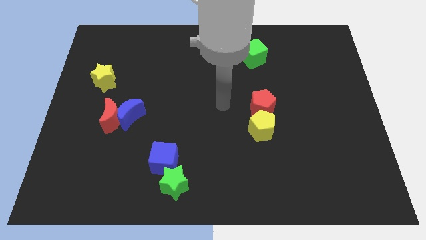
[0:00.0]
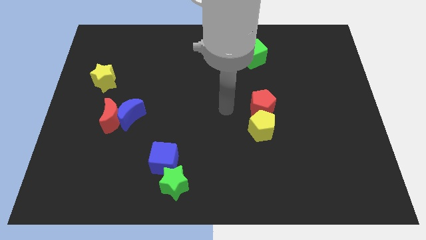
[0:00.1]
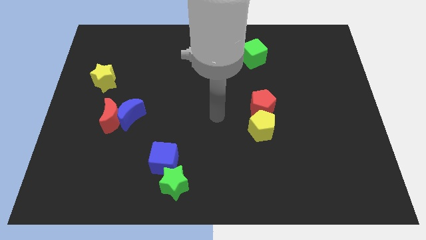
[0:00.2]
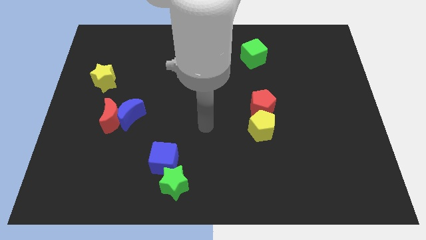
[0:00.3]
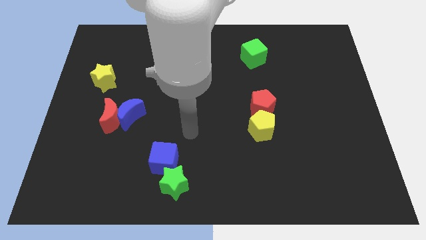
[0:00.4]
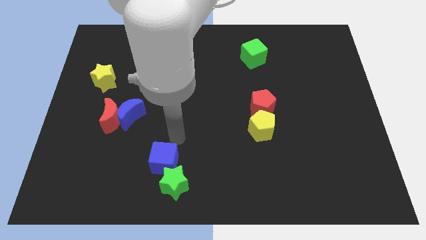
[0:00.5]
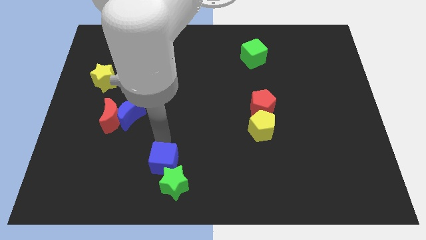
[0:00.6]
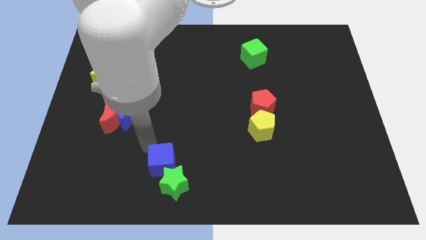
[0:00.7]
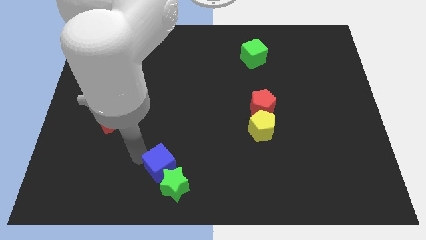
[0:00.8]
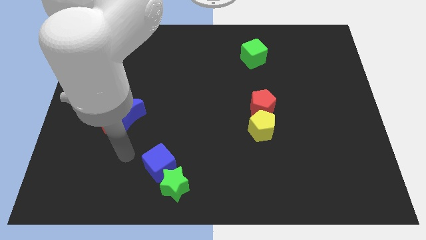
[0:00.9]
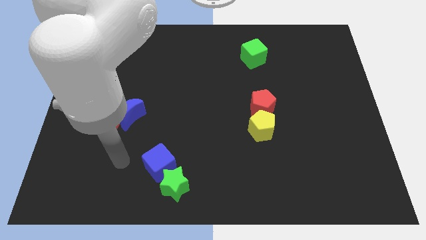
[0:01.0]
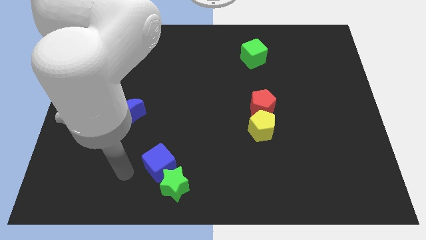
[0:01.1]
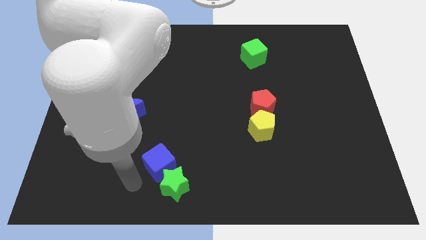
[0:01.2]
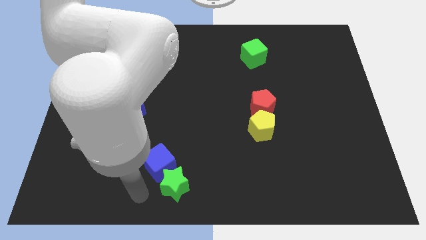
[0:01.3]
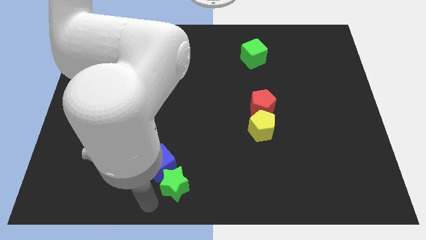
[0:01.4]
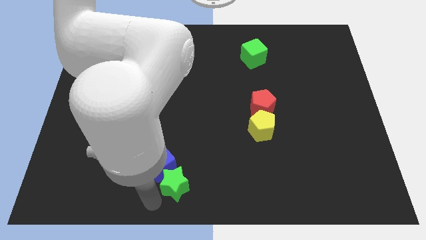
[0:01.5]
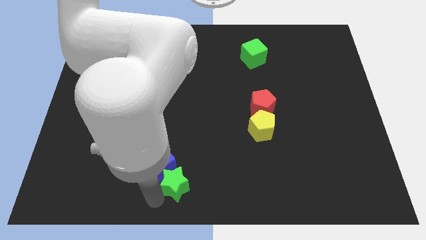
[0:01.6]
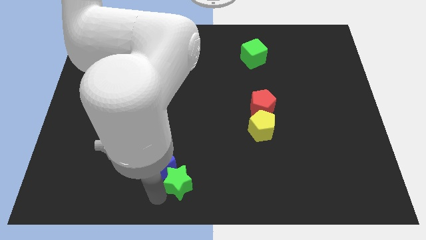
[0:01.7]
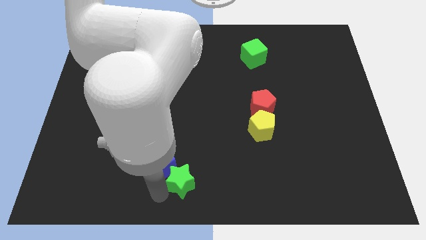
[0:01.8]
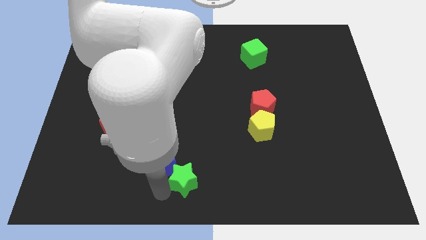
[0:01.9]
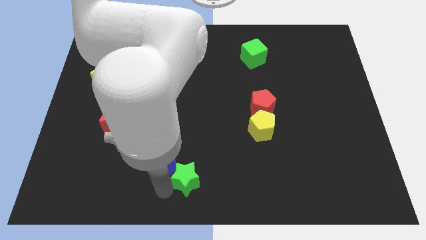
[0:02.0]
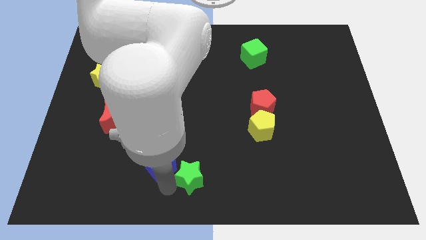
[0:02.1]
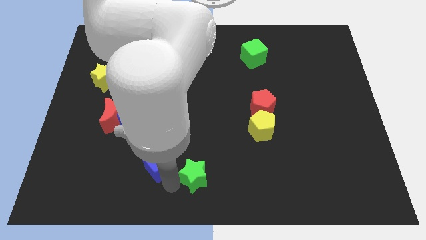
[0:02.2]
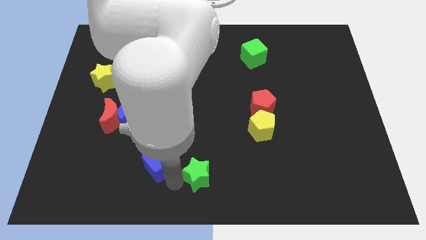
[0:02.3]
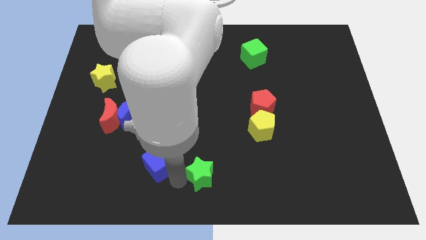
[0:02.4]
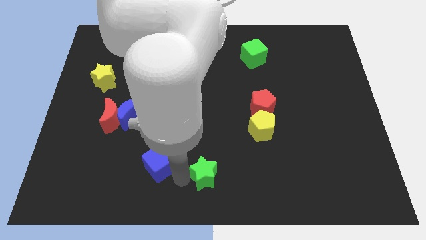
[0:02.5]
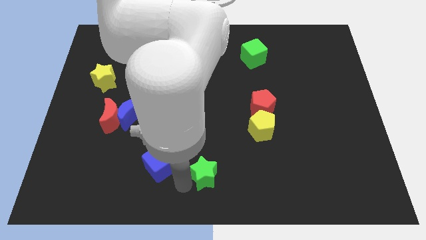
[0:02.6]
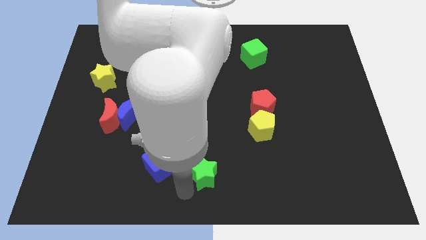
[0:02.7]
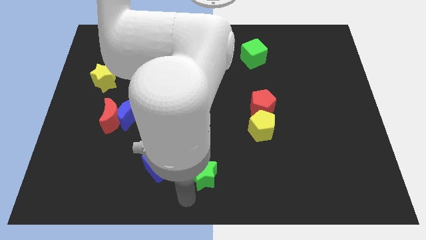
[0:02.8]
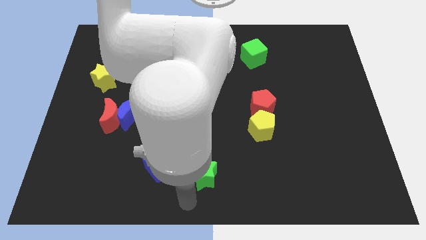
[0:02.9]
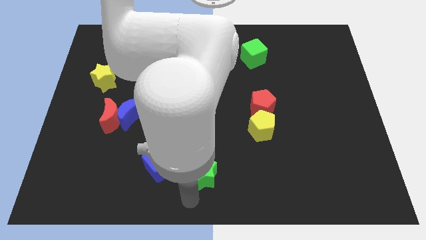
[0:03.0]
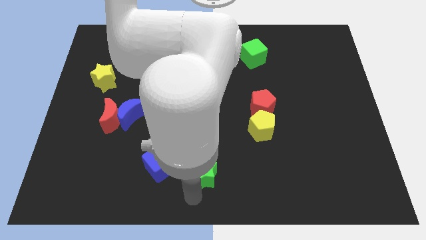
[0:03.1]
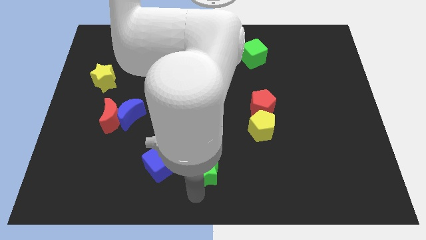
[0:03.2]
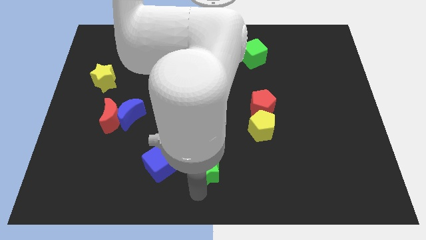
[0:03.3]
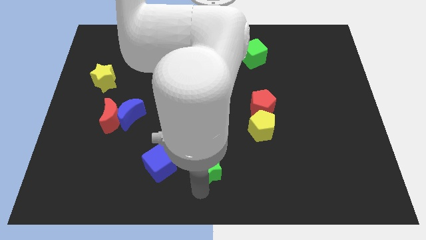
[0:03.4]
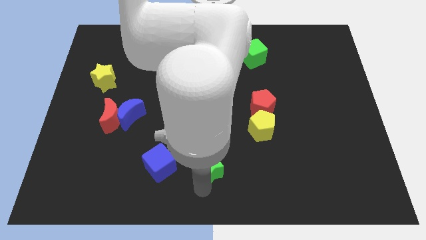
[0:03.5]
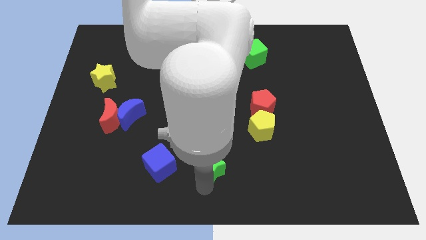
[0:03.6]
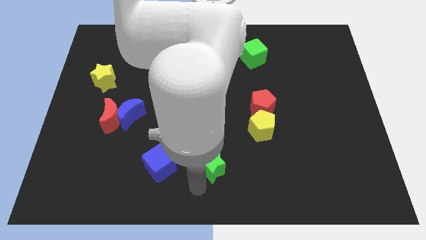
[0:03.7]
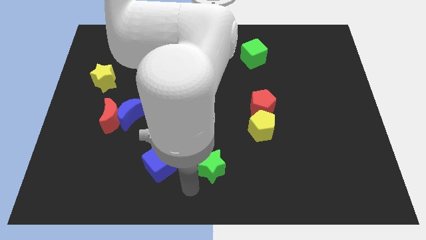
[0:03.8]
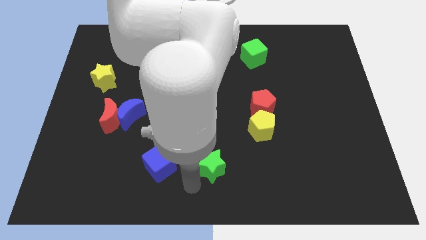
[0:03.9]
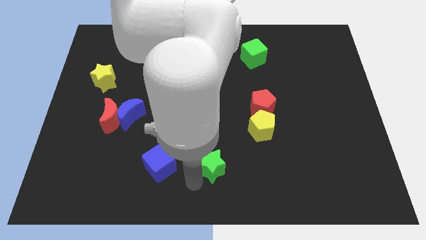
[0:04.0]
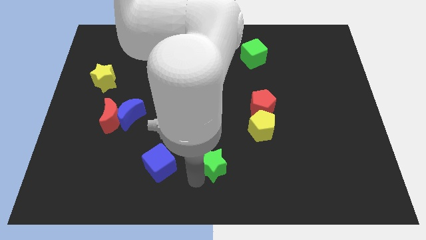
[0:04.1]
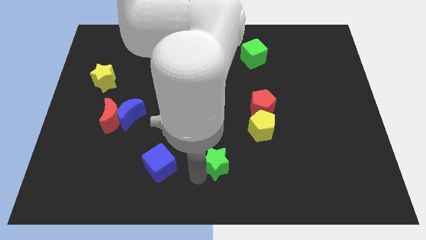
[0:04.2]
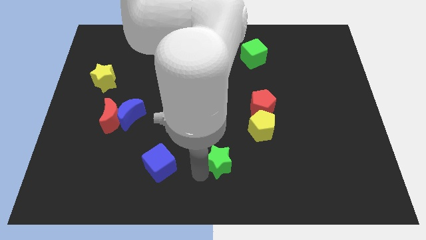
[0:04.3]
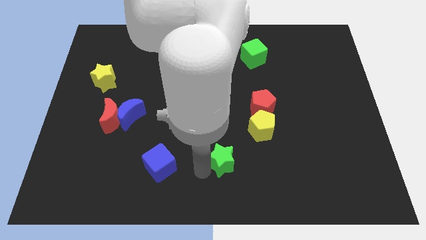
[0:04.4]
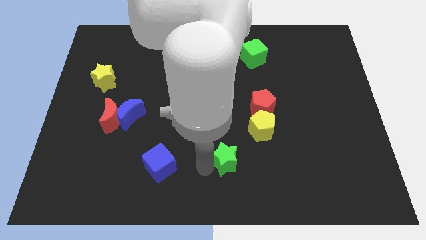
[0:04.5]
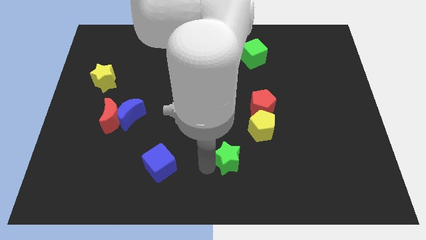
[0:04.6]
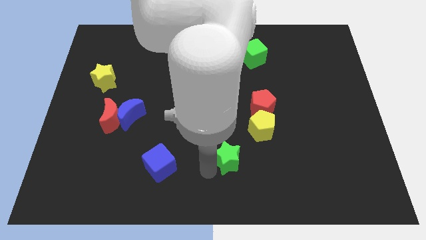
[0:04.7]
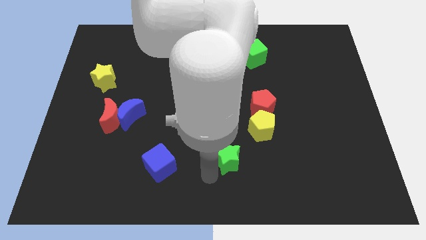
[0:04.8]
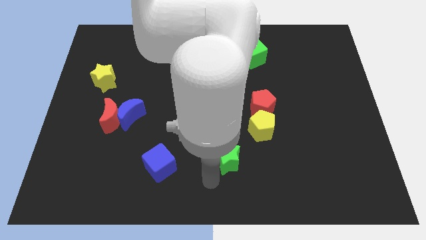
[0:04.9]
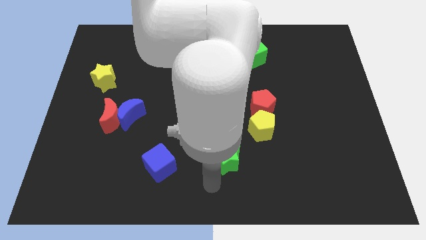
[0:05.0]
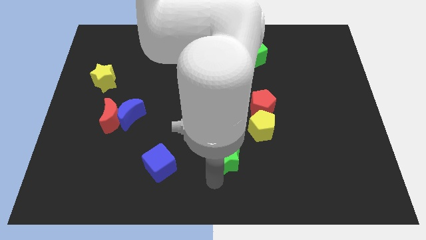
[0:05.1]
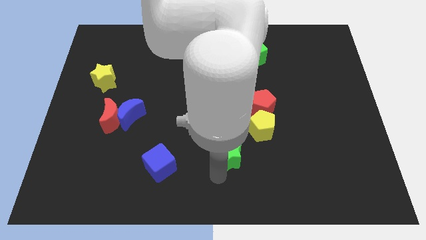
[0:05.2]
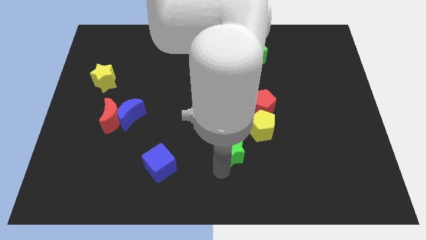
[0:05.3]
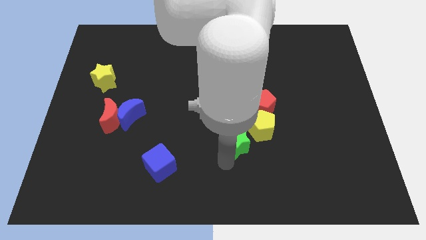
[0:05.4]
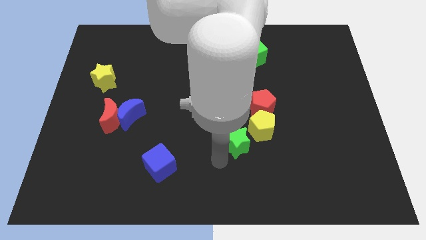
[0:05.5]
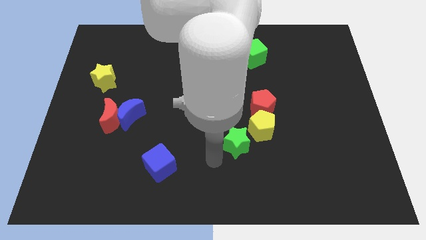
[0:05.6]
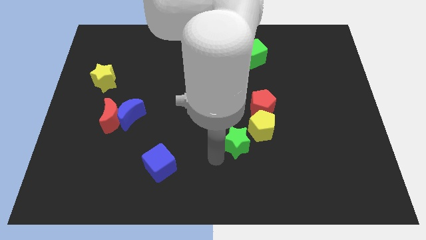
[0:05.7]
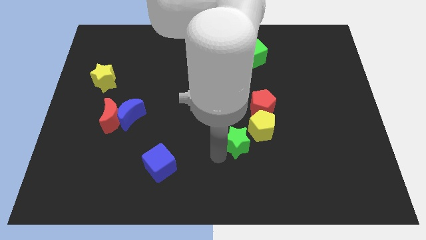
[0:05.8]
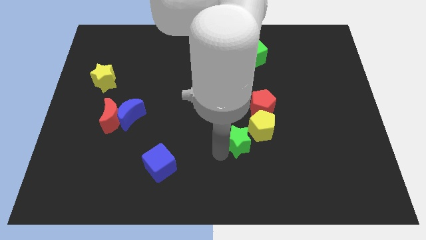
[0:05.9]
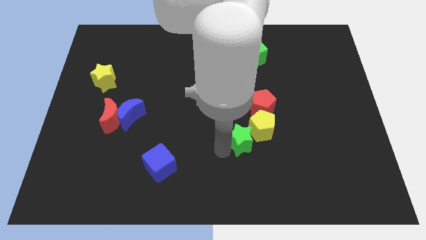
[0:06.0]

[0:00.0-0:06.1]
move the green star to the yellow pentagon

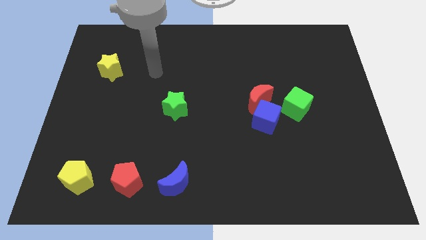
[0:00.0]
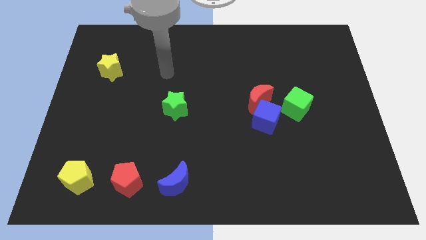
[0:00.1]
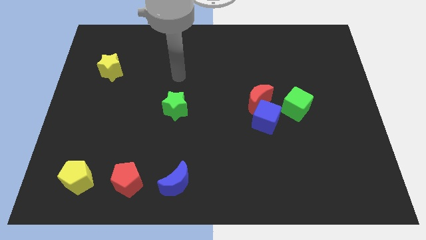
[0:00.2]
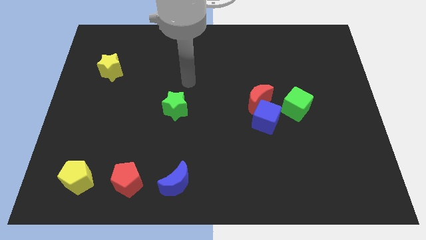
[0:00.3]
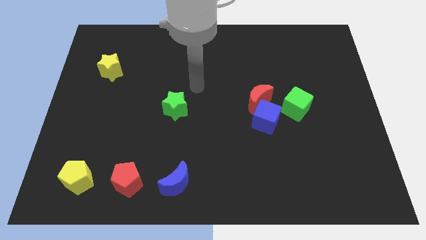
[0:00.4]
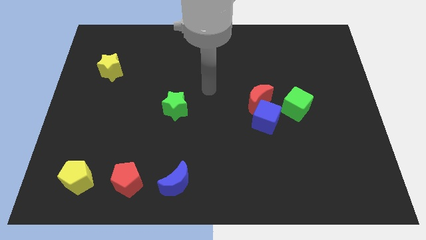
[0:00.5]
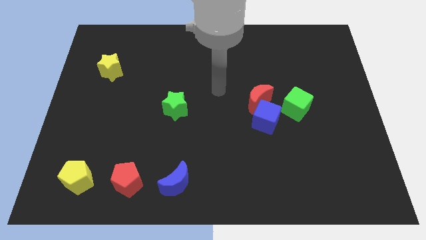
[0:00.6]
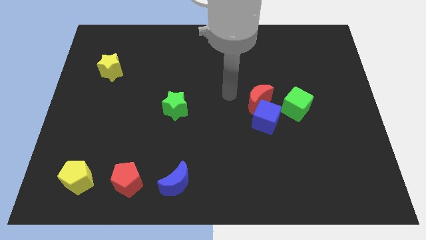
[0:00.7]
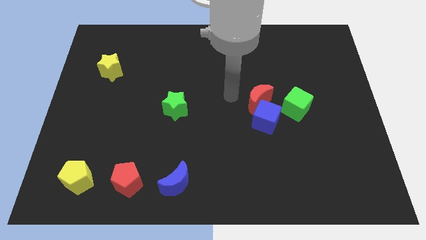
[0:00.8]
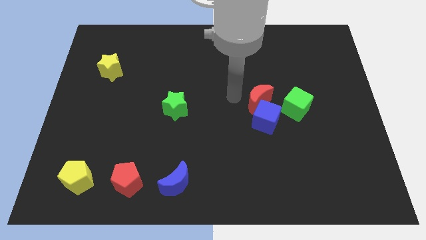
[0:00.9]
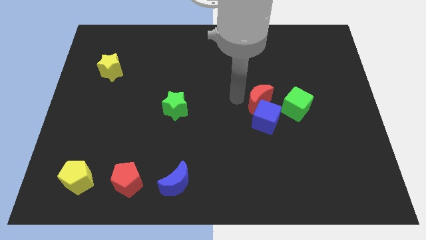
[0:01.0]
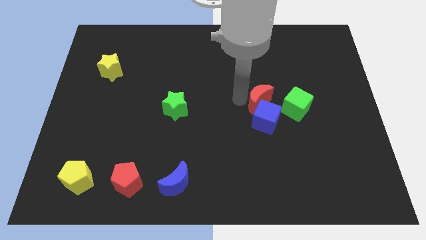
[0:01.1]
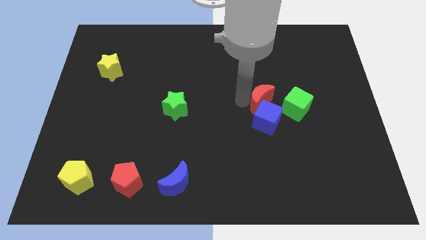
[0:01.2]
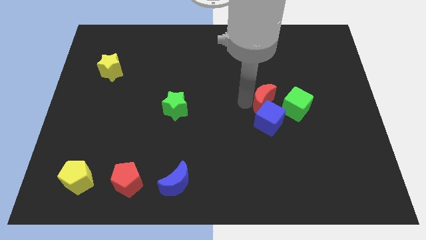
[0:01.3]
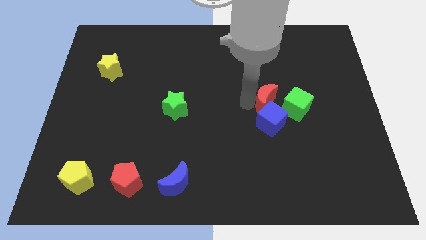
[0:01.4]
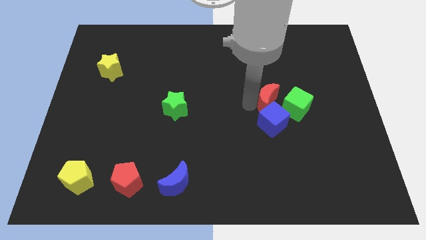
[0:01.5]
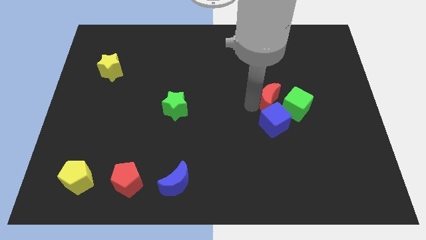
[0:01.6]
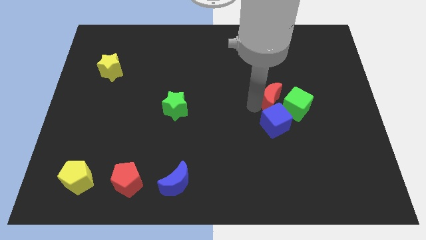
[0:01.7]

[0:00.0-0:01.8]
put the red moon close to the green cube

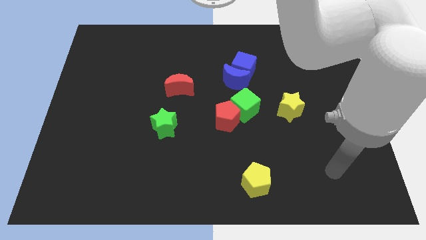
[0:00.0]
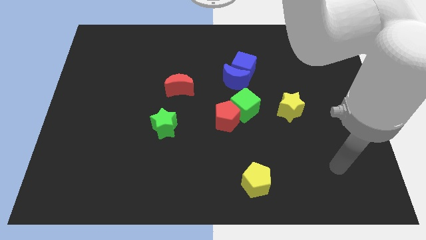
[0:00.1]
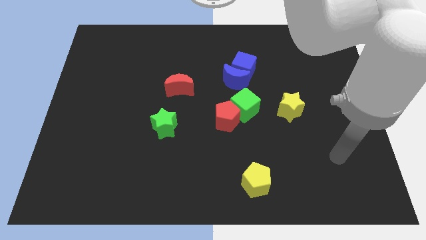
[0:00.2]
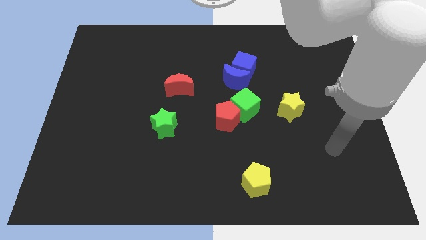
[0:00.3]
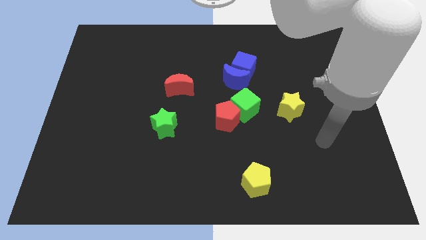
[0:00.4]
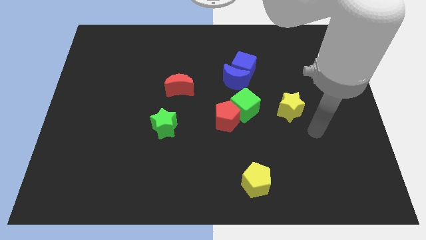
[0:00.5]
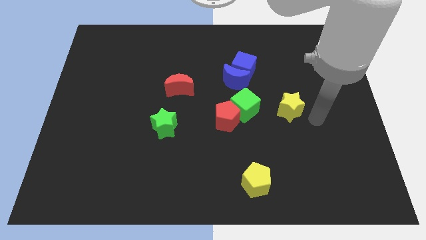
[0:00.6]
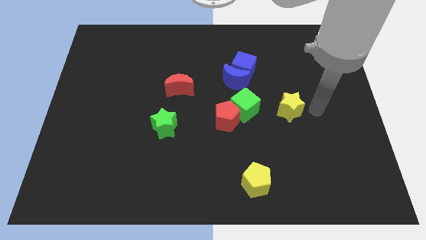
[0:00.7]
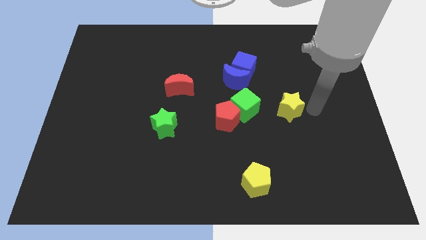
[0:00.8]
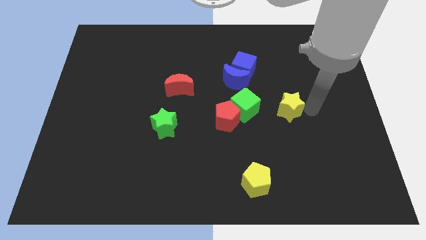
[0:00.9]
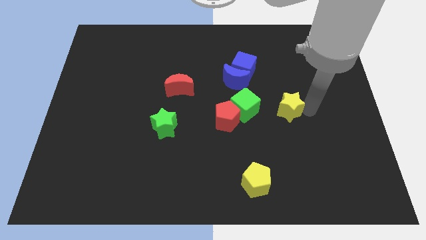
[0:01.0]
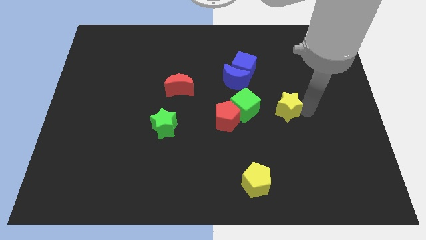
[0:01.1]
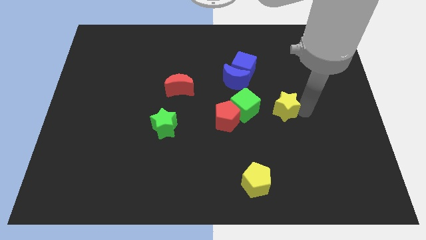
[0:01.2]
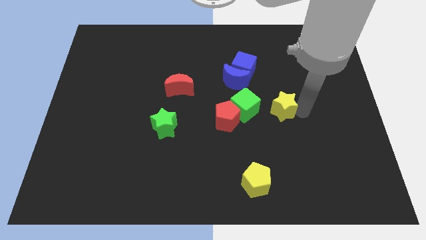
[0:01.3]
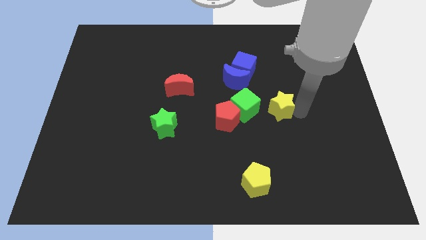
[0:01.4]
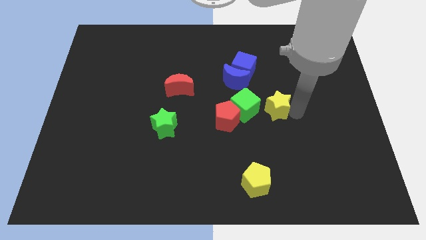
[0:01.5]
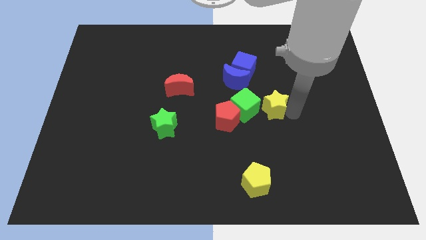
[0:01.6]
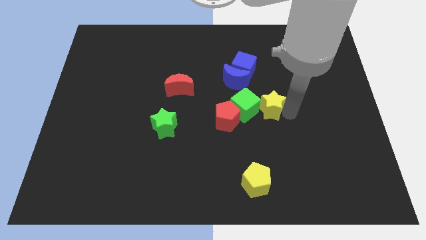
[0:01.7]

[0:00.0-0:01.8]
push the yellow star next to the green cube
